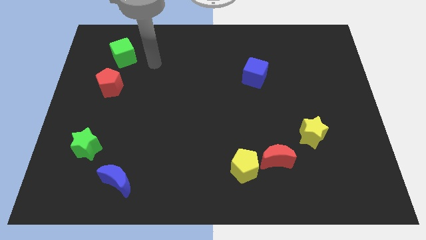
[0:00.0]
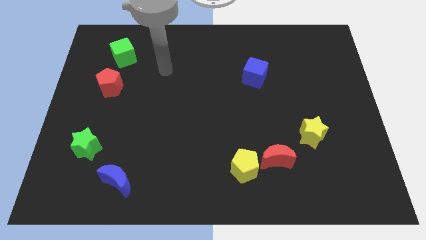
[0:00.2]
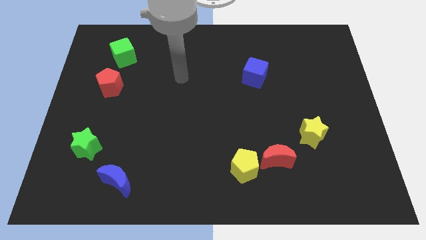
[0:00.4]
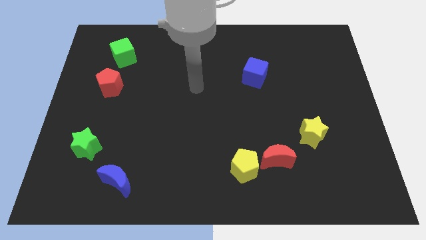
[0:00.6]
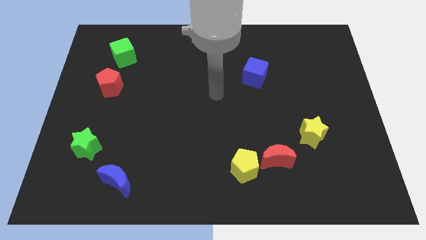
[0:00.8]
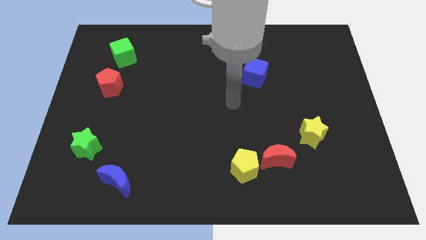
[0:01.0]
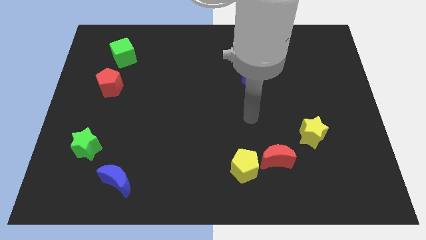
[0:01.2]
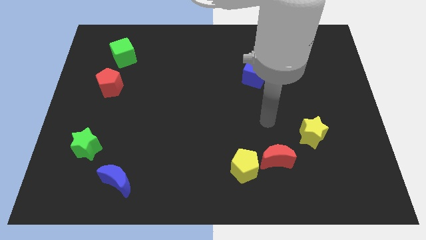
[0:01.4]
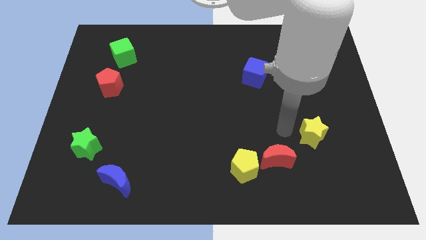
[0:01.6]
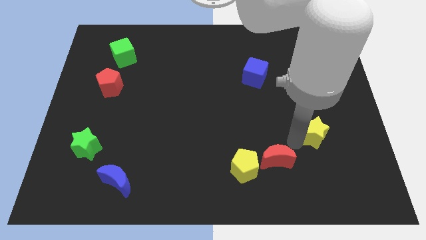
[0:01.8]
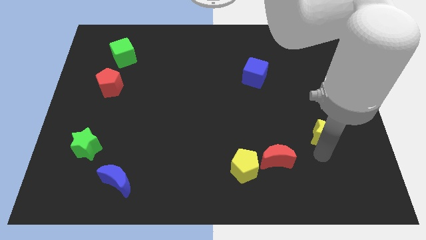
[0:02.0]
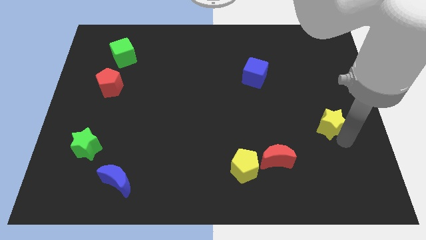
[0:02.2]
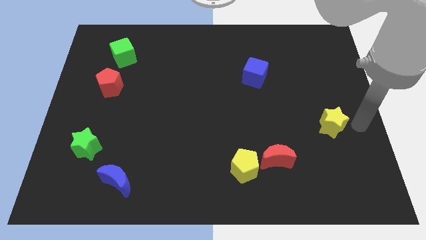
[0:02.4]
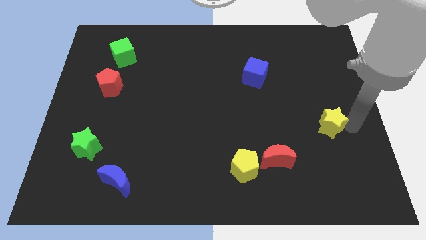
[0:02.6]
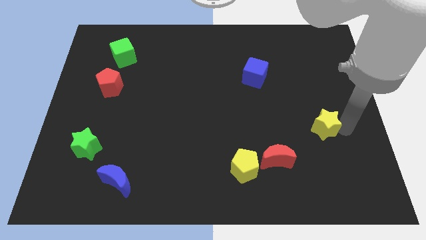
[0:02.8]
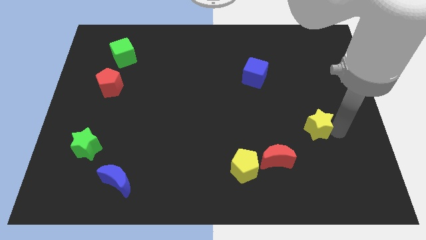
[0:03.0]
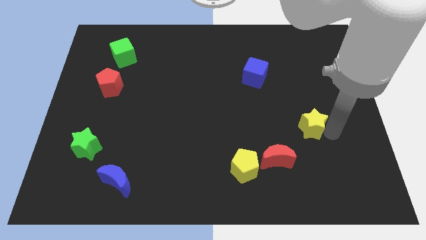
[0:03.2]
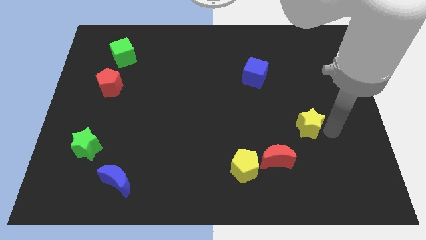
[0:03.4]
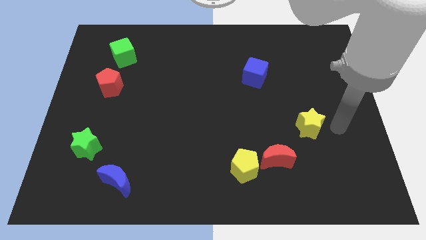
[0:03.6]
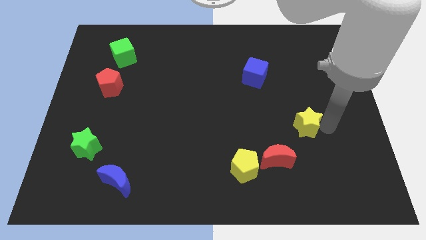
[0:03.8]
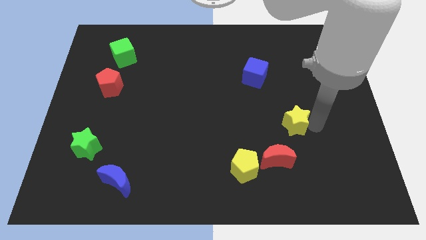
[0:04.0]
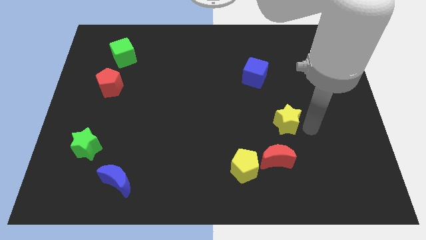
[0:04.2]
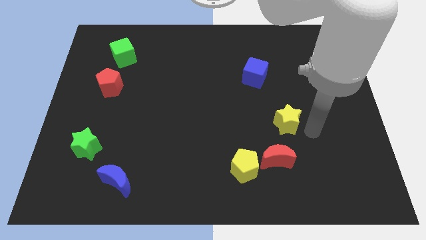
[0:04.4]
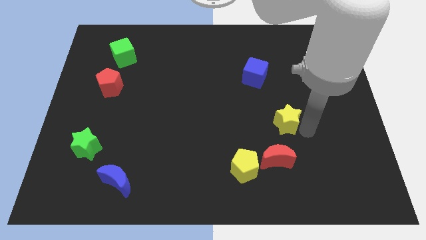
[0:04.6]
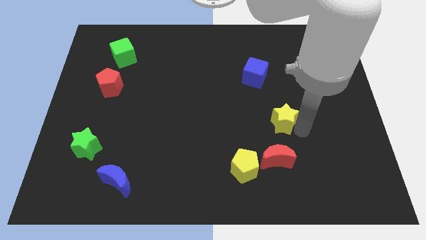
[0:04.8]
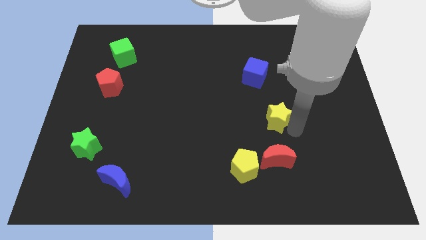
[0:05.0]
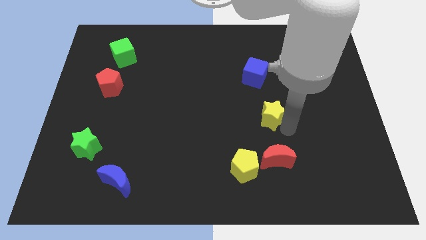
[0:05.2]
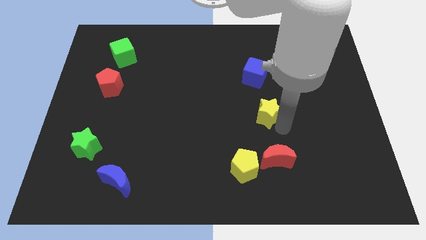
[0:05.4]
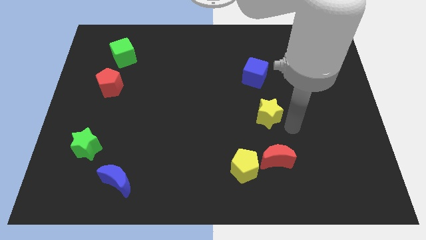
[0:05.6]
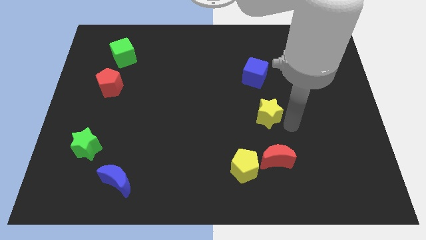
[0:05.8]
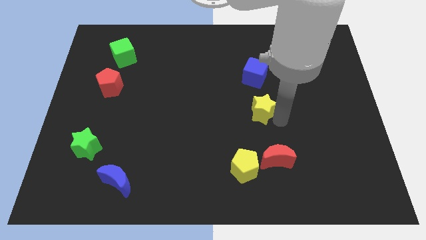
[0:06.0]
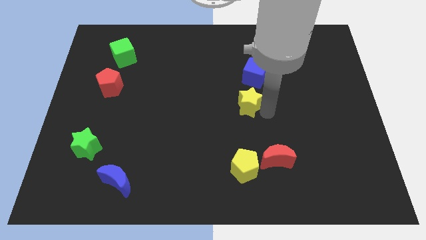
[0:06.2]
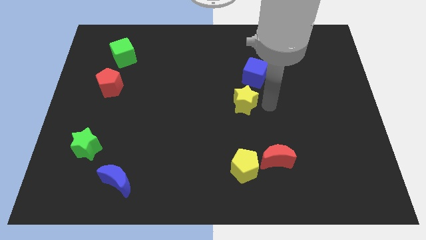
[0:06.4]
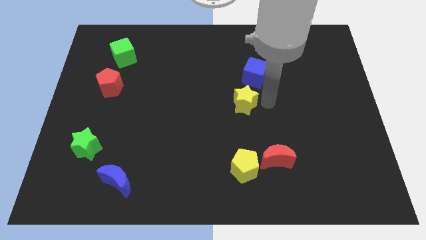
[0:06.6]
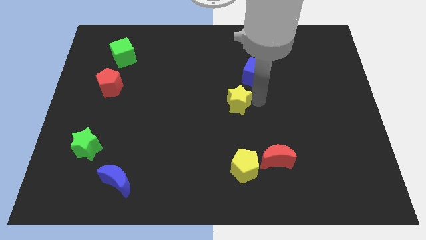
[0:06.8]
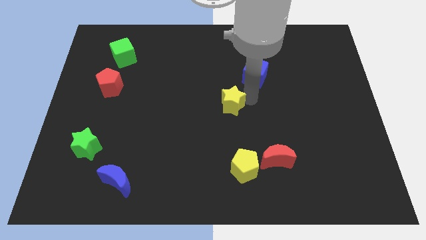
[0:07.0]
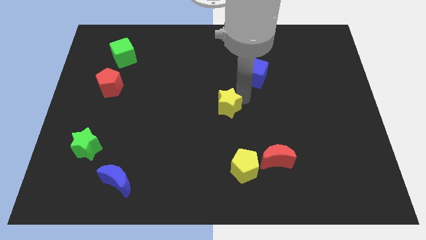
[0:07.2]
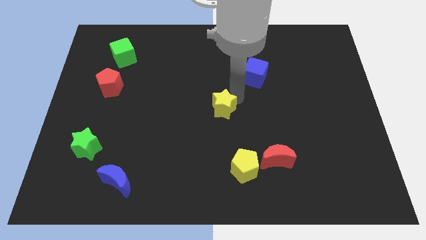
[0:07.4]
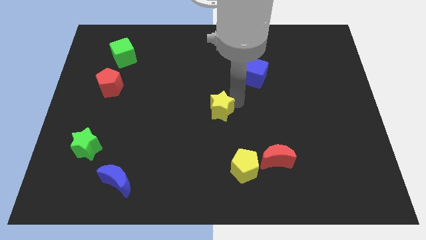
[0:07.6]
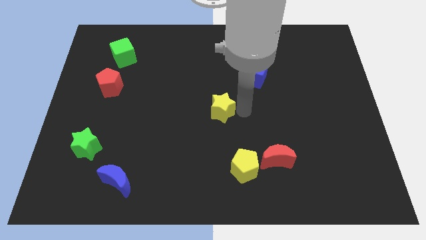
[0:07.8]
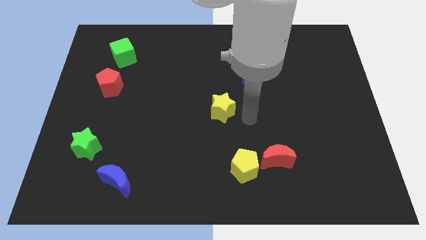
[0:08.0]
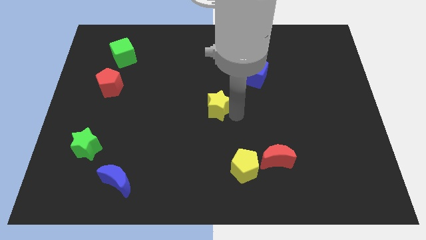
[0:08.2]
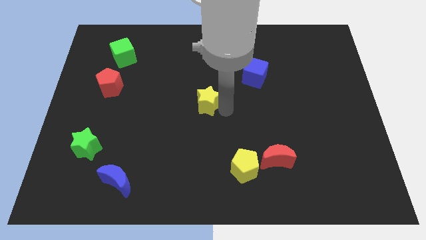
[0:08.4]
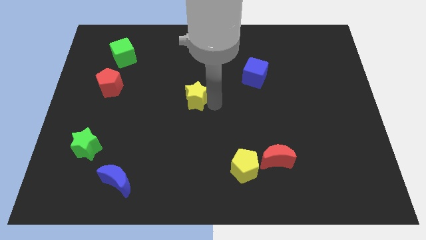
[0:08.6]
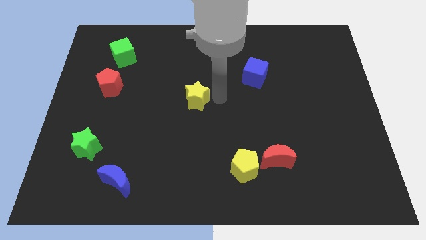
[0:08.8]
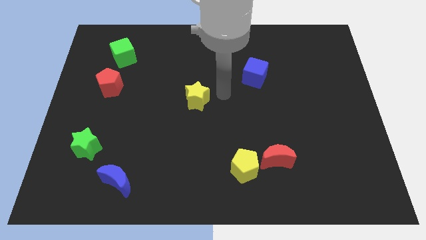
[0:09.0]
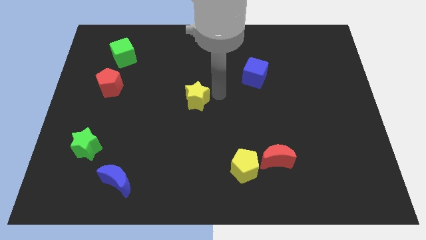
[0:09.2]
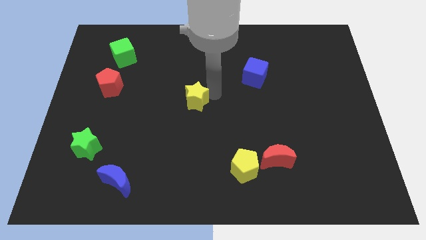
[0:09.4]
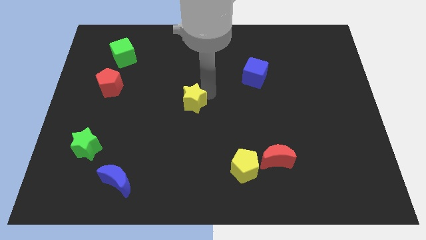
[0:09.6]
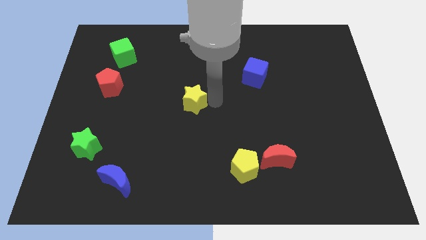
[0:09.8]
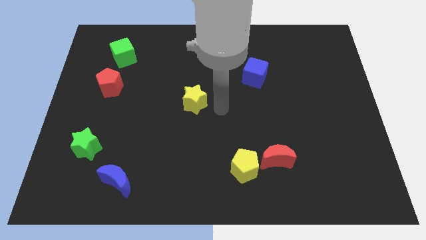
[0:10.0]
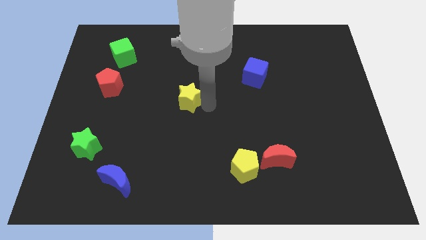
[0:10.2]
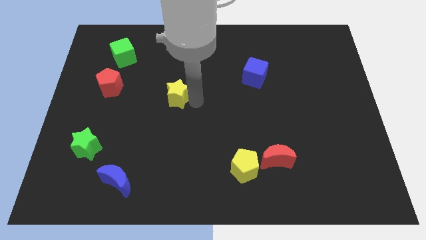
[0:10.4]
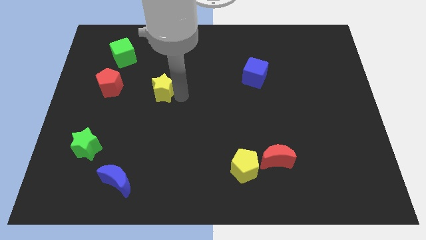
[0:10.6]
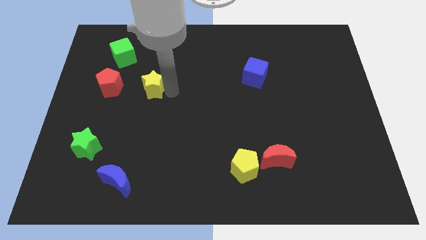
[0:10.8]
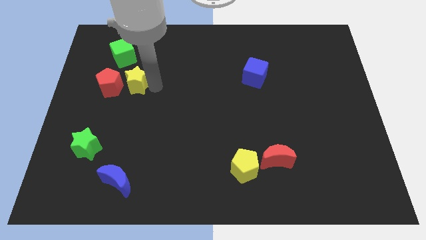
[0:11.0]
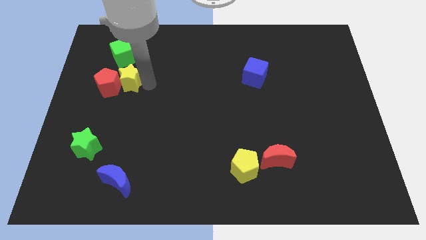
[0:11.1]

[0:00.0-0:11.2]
slide the yellow star to the red pentagon
